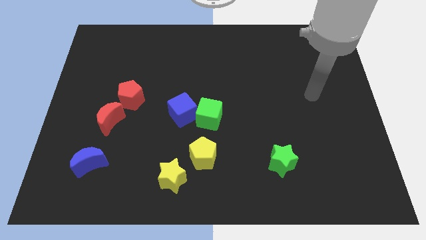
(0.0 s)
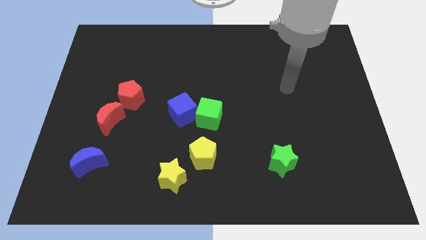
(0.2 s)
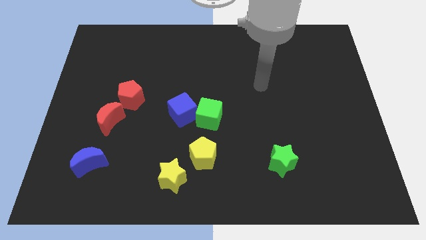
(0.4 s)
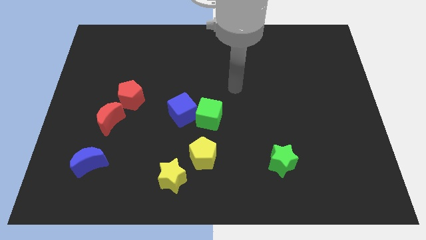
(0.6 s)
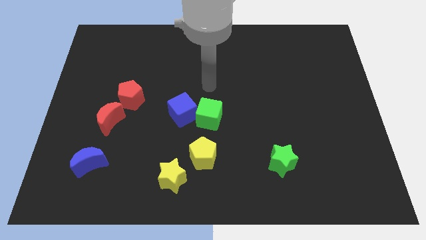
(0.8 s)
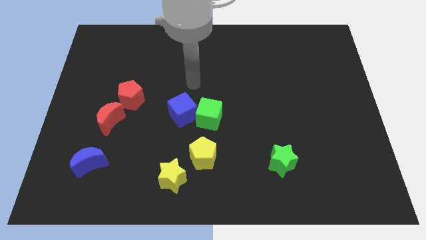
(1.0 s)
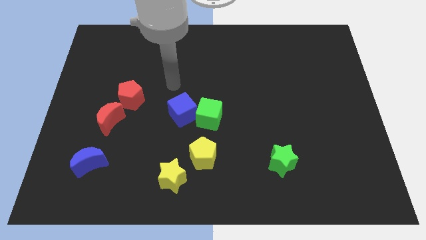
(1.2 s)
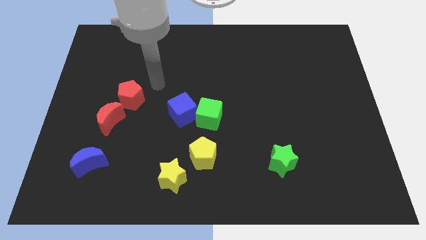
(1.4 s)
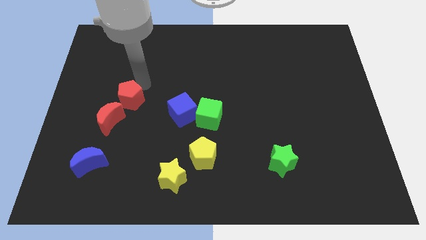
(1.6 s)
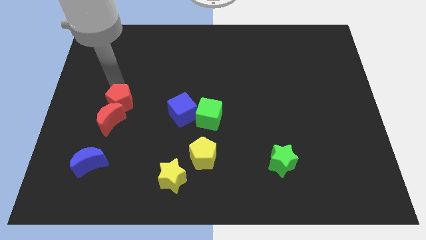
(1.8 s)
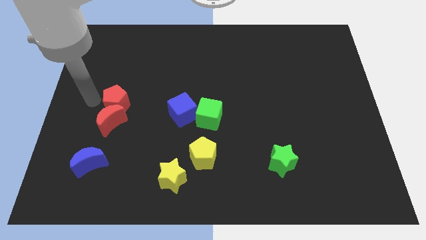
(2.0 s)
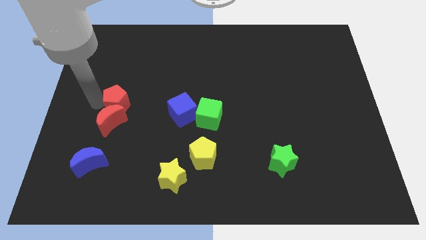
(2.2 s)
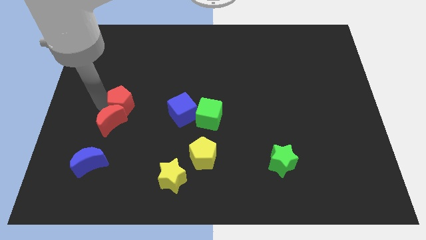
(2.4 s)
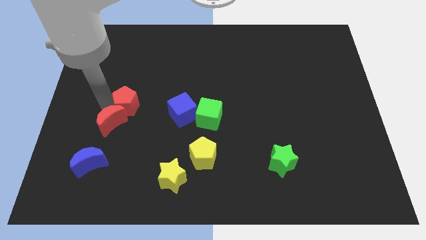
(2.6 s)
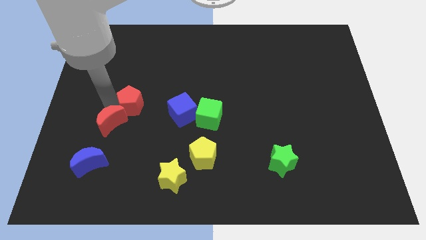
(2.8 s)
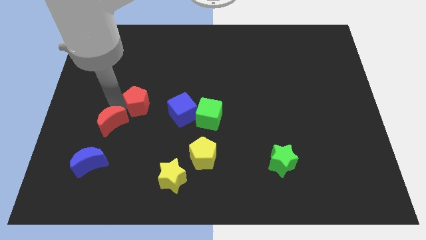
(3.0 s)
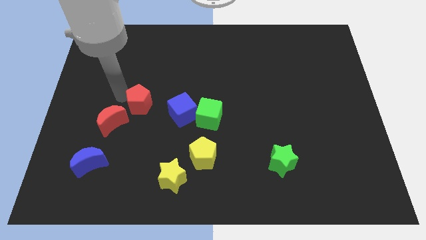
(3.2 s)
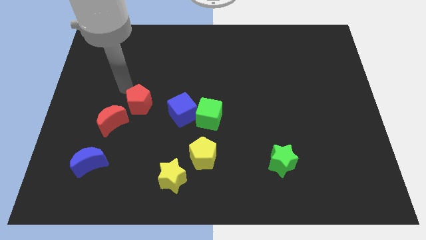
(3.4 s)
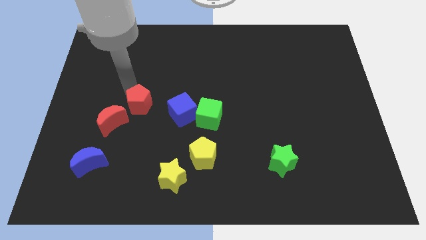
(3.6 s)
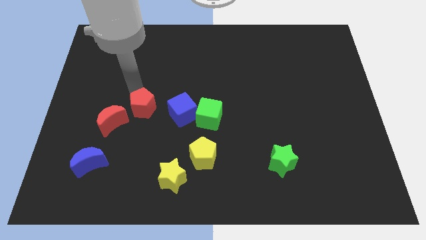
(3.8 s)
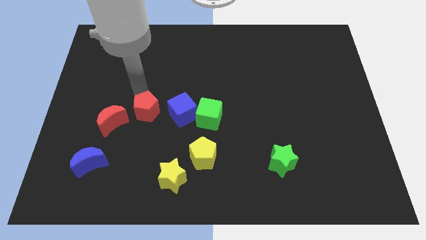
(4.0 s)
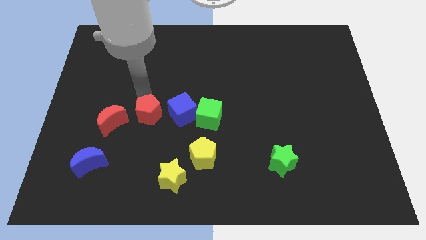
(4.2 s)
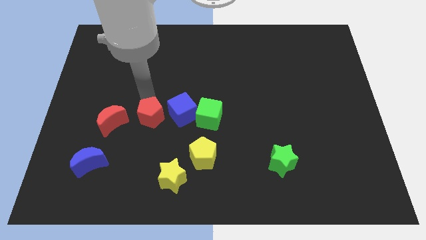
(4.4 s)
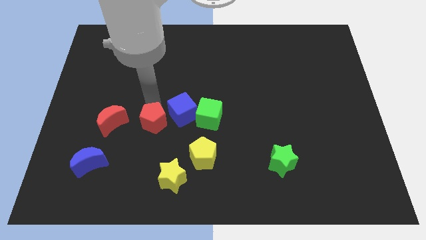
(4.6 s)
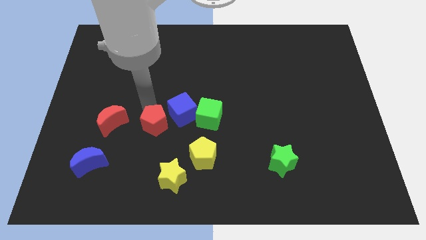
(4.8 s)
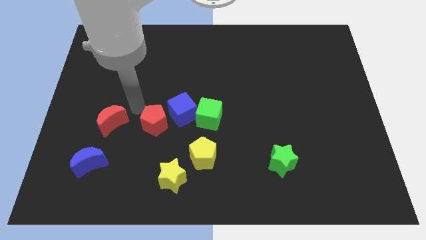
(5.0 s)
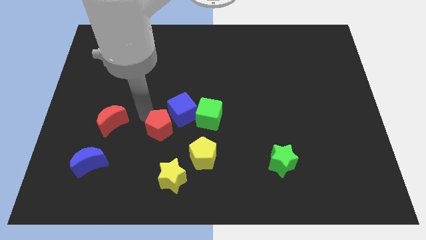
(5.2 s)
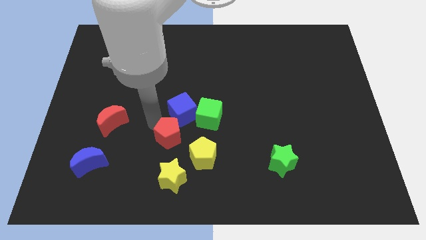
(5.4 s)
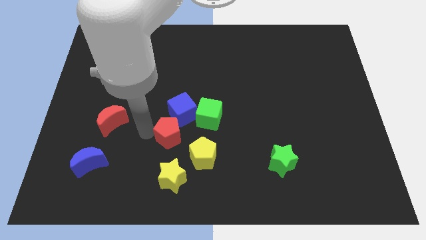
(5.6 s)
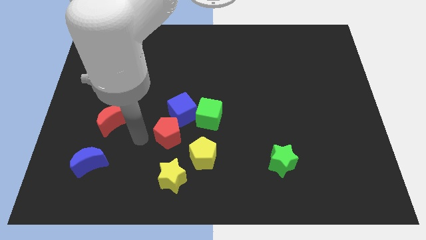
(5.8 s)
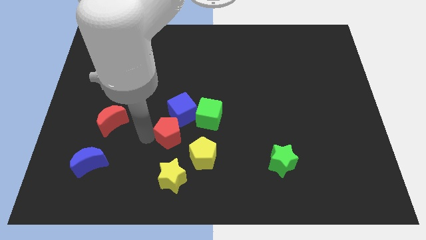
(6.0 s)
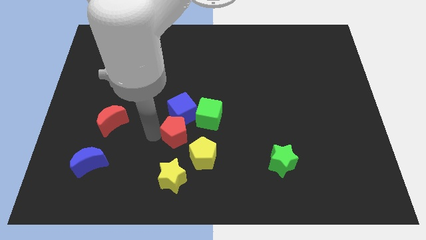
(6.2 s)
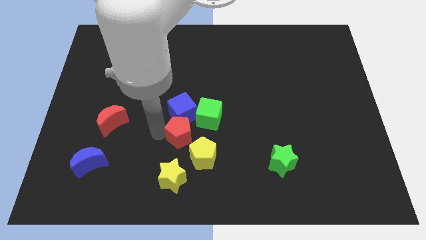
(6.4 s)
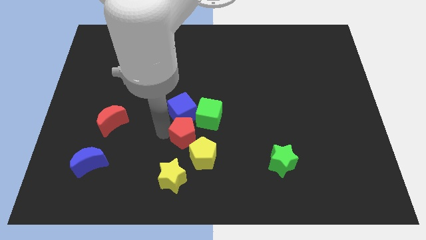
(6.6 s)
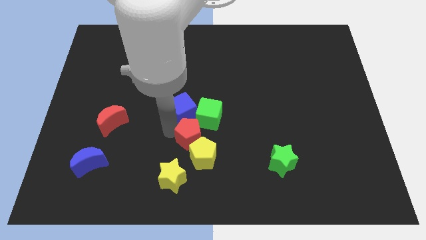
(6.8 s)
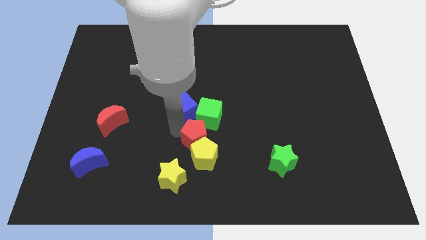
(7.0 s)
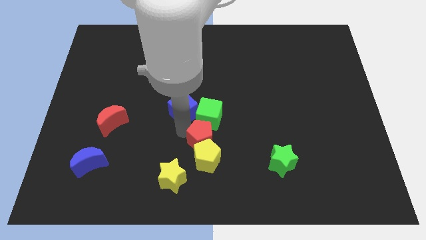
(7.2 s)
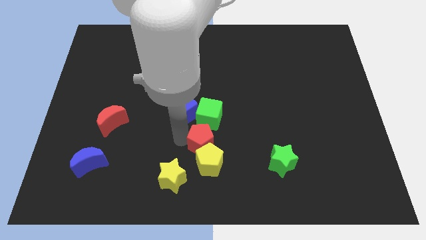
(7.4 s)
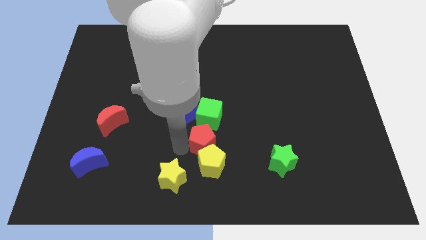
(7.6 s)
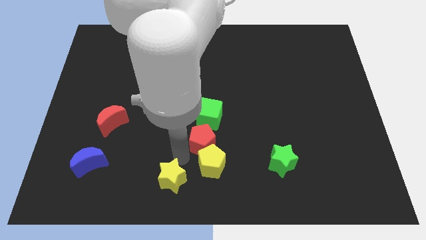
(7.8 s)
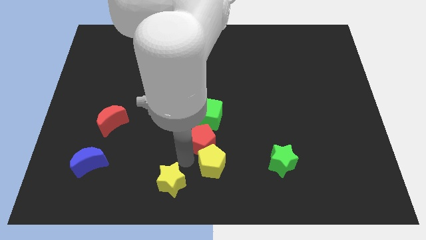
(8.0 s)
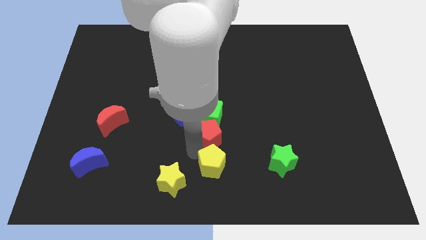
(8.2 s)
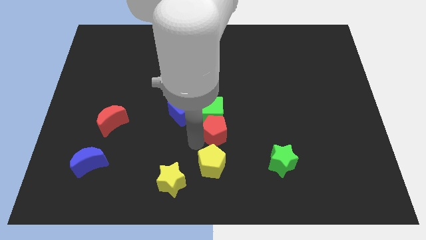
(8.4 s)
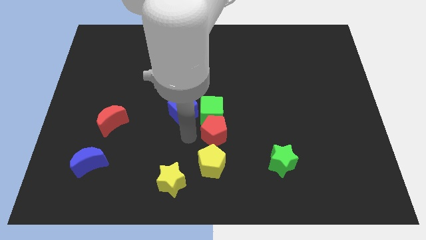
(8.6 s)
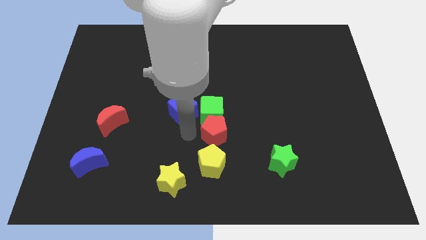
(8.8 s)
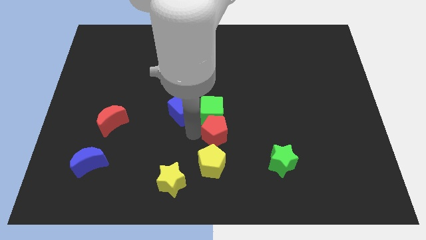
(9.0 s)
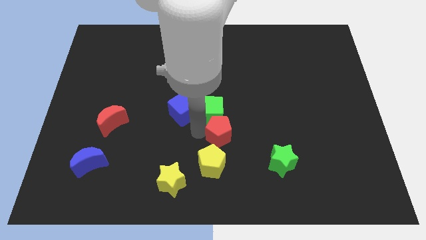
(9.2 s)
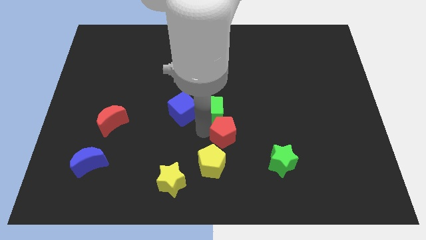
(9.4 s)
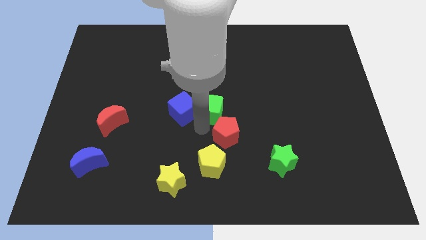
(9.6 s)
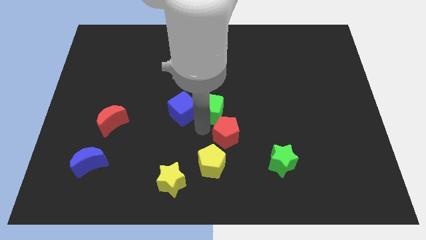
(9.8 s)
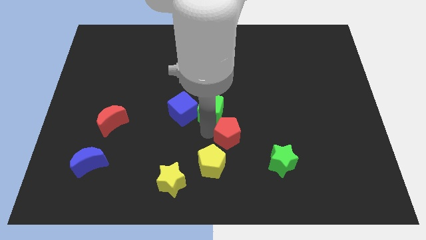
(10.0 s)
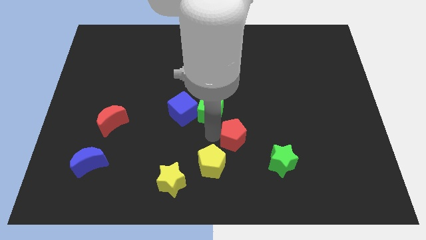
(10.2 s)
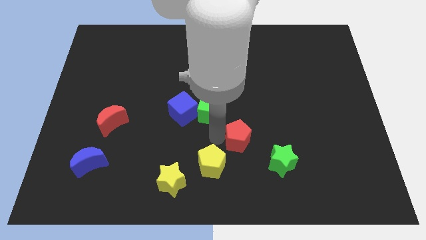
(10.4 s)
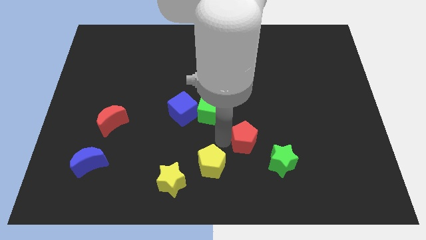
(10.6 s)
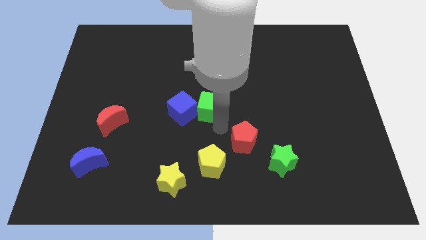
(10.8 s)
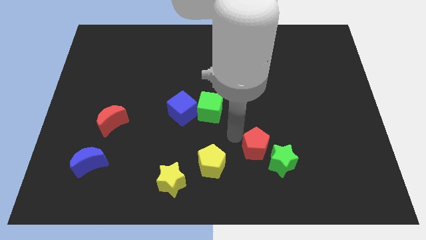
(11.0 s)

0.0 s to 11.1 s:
move the red pentagon next to the green star

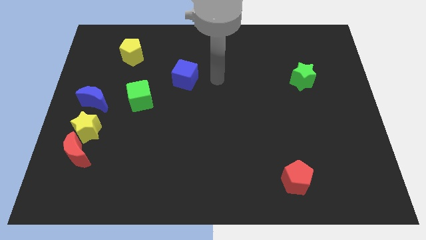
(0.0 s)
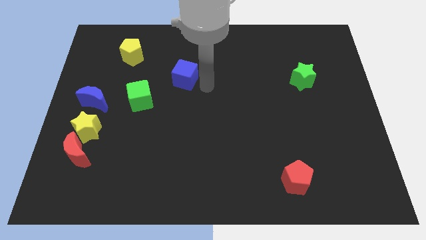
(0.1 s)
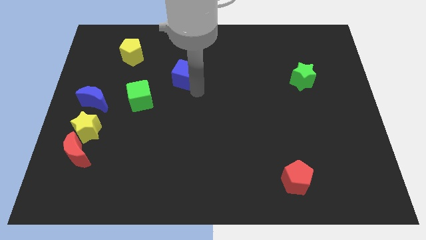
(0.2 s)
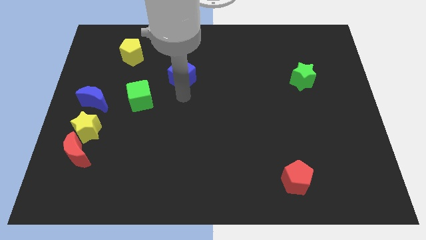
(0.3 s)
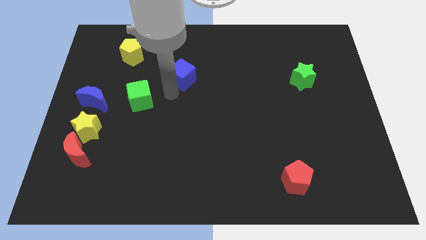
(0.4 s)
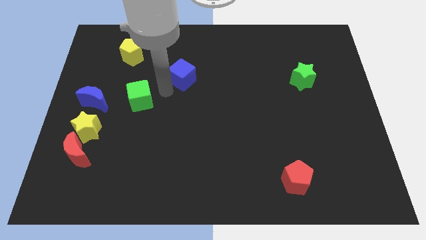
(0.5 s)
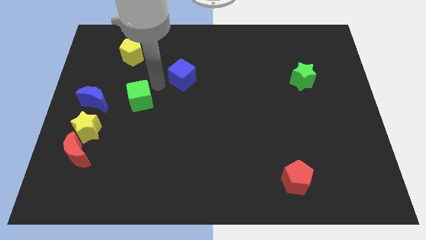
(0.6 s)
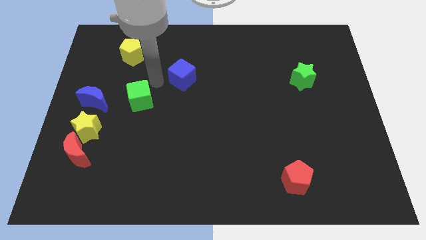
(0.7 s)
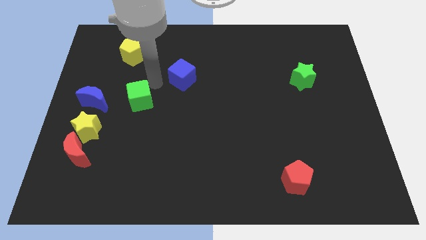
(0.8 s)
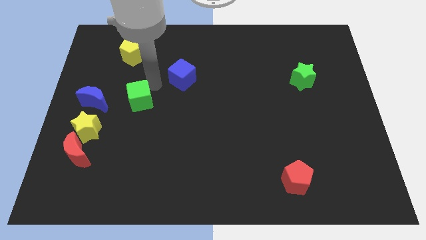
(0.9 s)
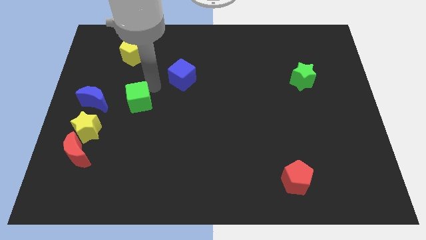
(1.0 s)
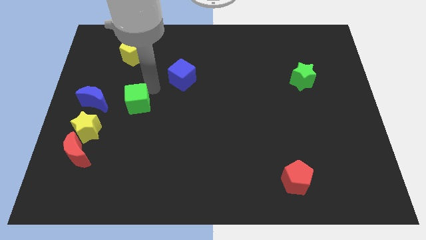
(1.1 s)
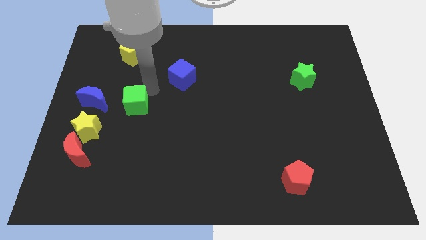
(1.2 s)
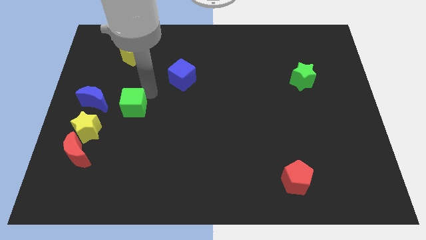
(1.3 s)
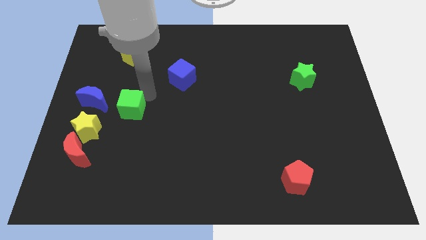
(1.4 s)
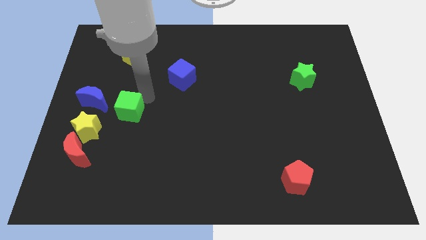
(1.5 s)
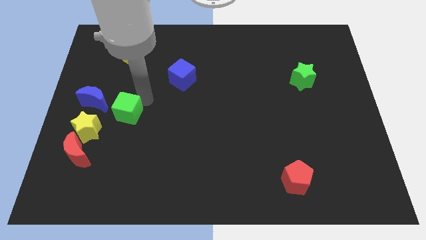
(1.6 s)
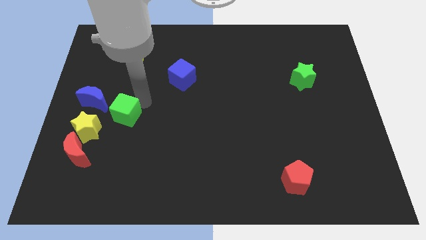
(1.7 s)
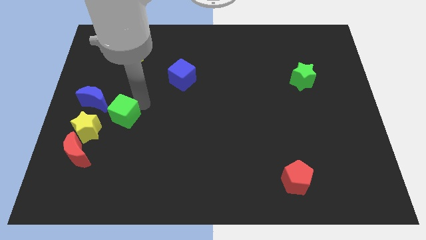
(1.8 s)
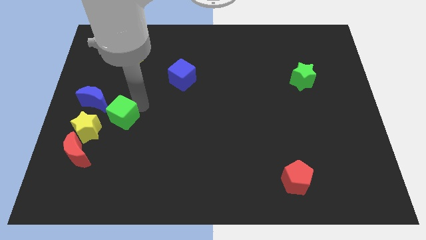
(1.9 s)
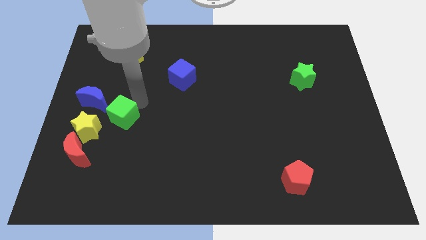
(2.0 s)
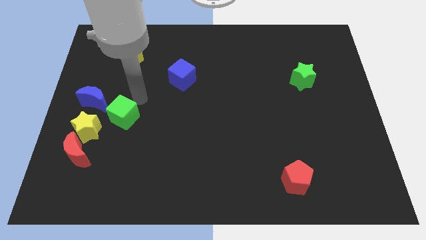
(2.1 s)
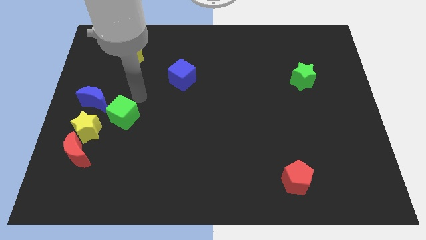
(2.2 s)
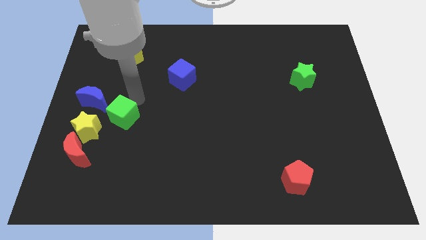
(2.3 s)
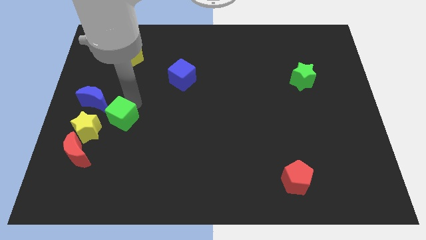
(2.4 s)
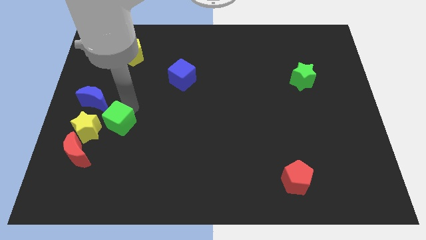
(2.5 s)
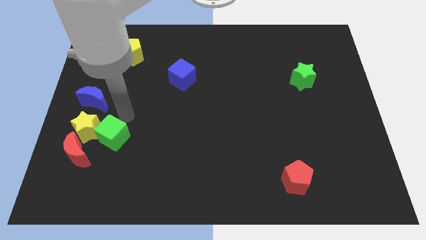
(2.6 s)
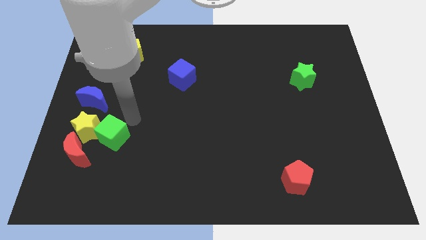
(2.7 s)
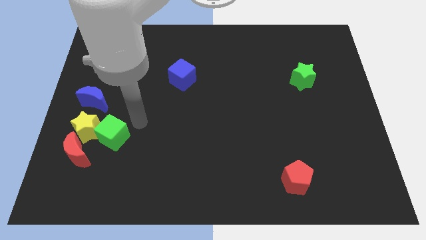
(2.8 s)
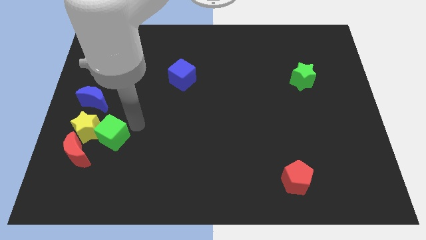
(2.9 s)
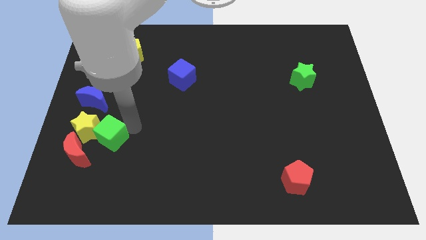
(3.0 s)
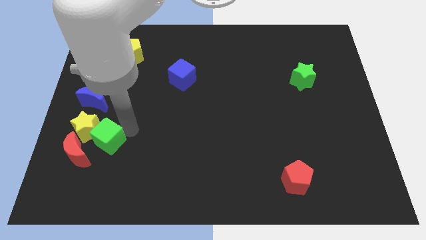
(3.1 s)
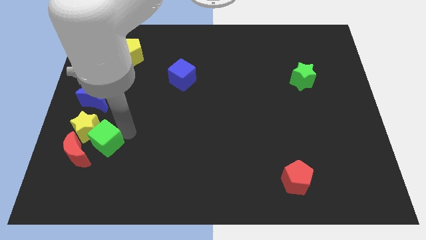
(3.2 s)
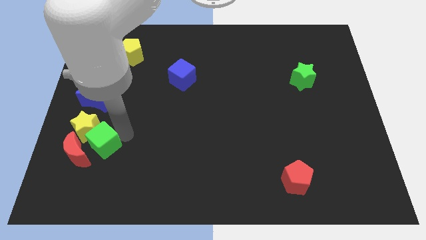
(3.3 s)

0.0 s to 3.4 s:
push the green cube close to the red moon
